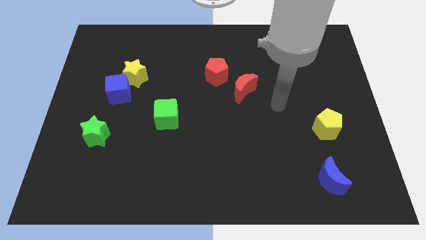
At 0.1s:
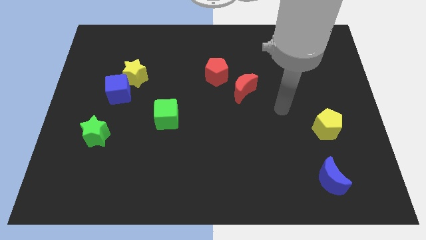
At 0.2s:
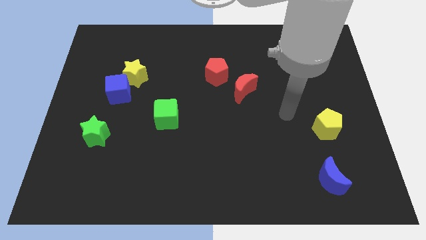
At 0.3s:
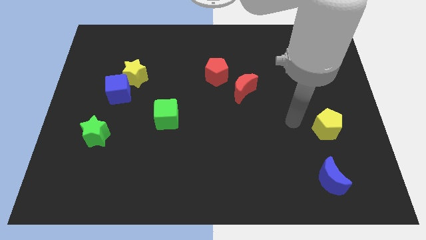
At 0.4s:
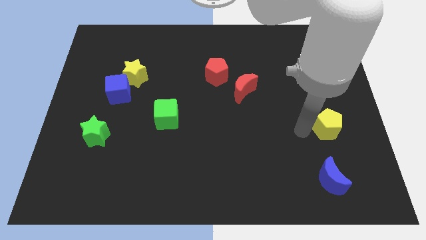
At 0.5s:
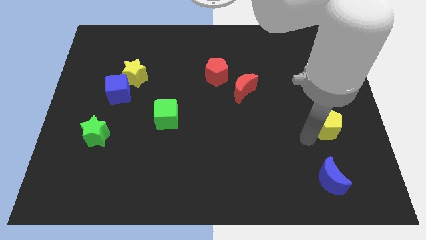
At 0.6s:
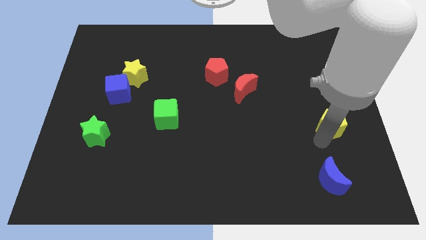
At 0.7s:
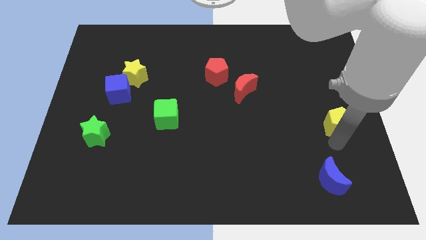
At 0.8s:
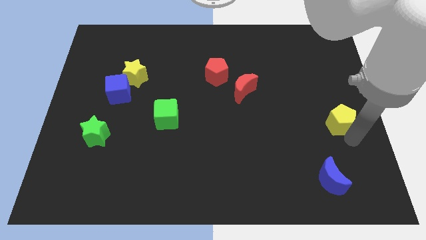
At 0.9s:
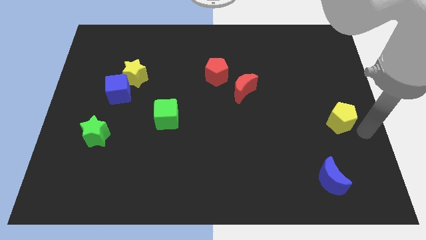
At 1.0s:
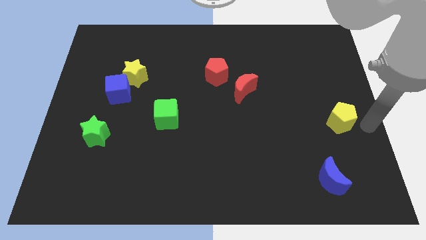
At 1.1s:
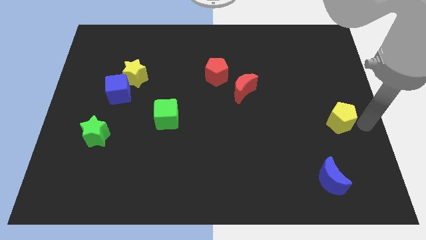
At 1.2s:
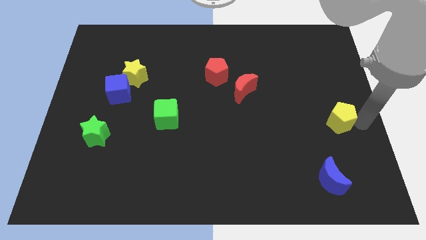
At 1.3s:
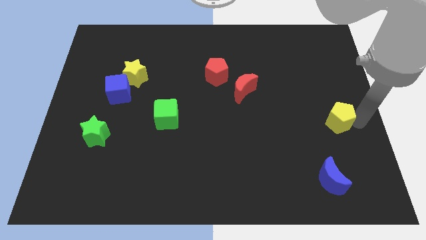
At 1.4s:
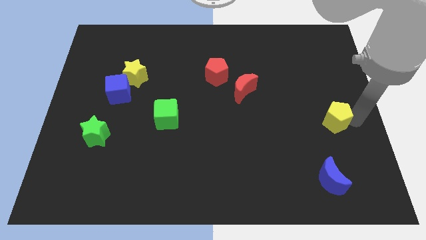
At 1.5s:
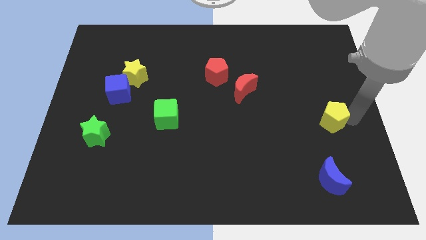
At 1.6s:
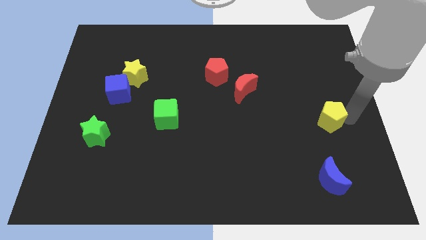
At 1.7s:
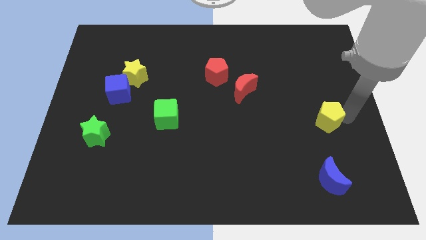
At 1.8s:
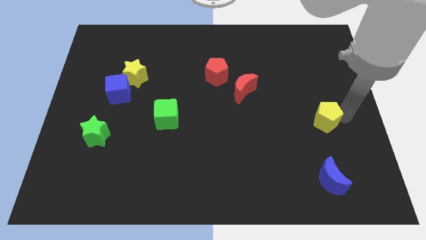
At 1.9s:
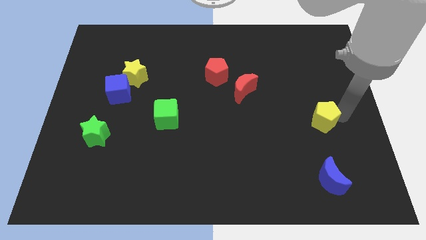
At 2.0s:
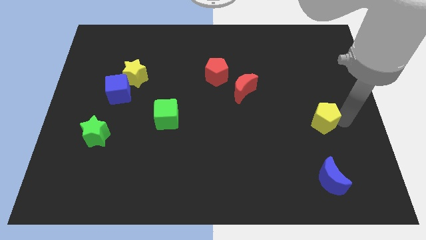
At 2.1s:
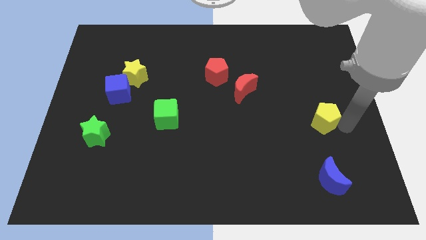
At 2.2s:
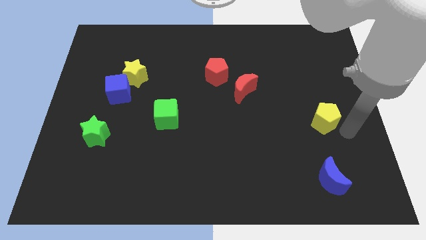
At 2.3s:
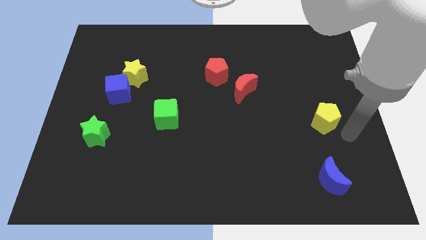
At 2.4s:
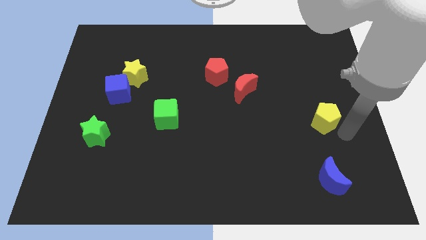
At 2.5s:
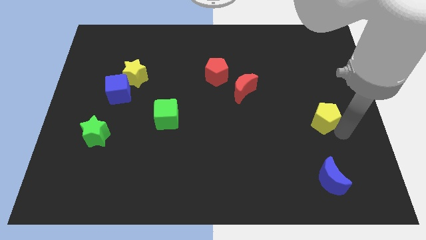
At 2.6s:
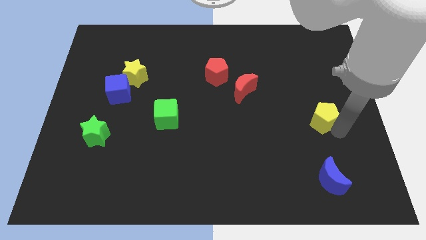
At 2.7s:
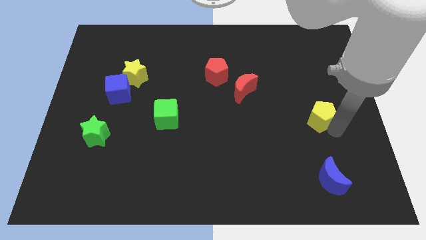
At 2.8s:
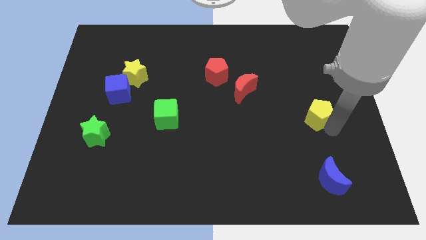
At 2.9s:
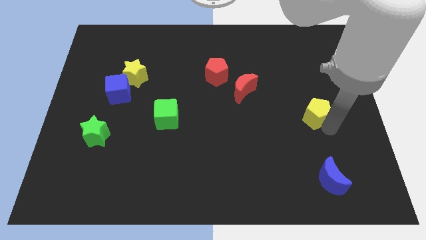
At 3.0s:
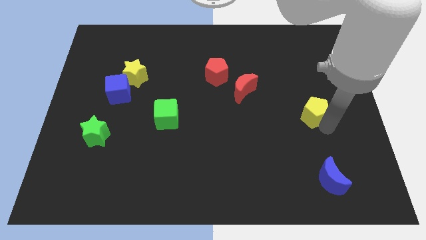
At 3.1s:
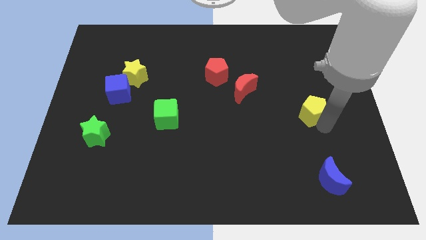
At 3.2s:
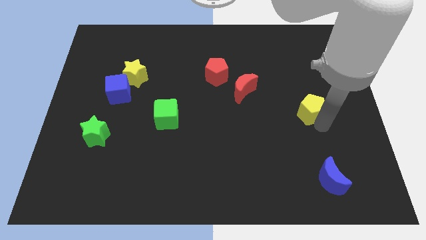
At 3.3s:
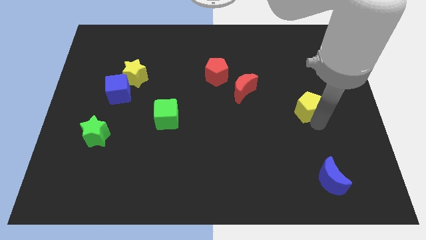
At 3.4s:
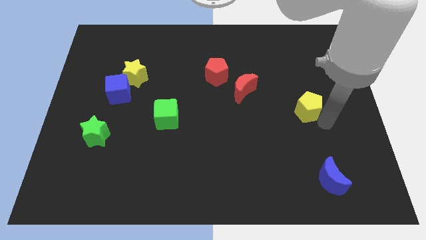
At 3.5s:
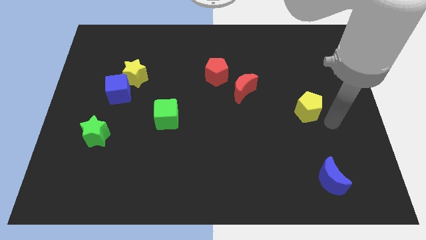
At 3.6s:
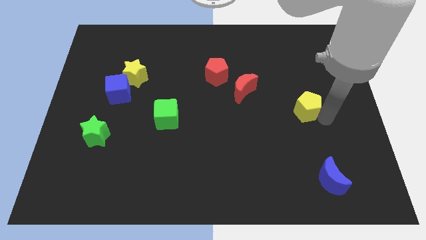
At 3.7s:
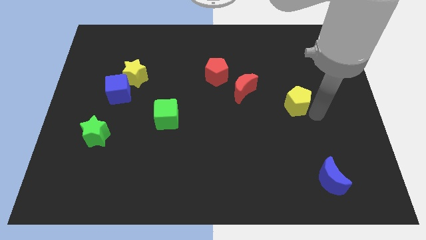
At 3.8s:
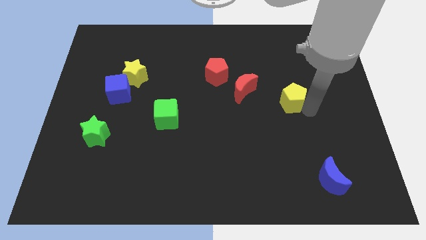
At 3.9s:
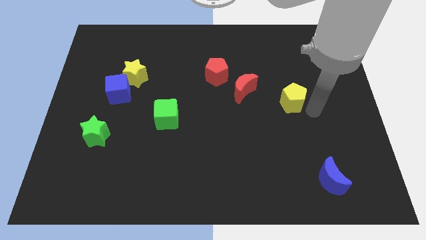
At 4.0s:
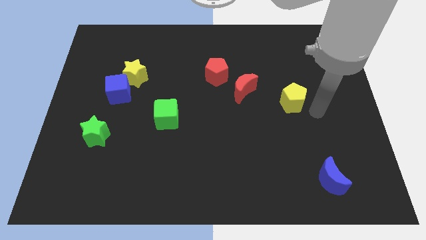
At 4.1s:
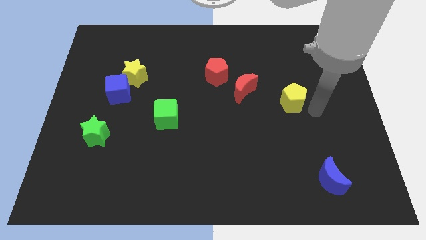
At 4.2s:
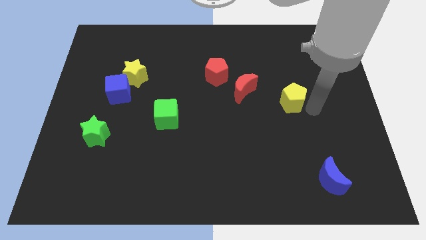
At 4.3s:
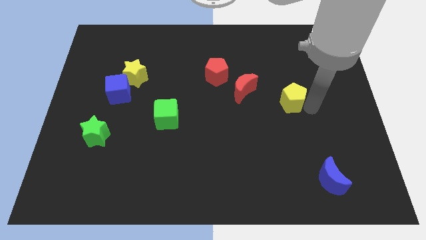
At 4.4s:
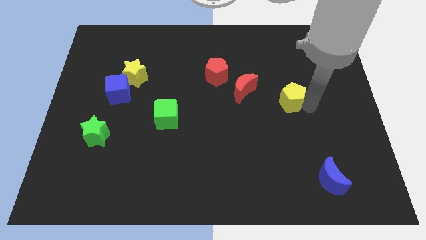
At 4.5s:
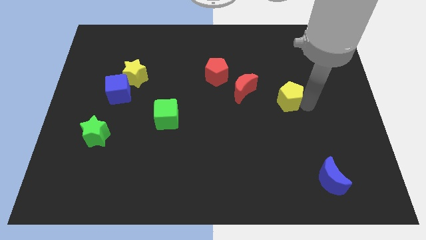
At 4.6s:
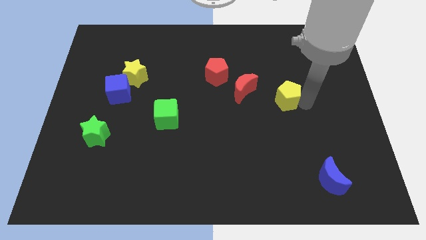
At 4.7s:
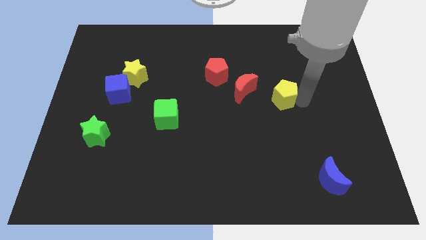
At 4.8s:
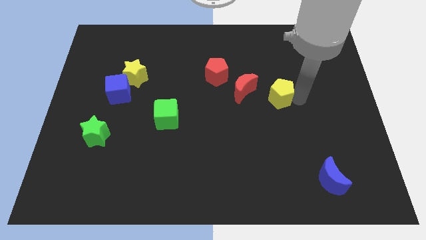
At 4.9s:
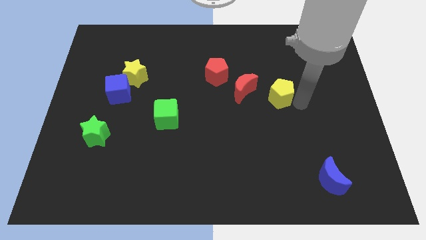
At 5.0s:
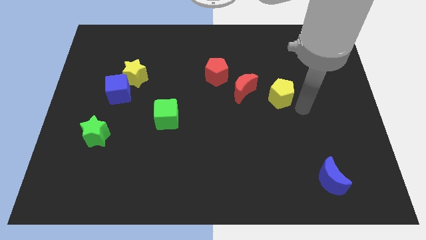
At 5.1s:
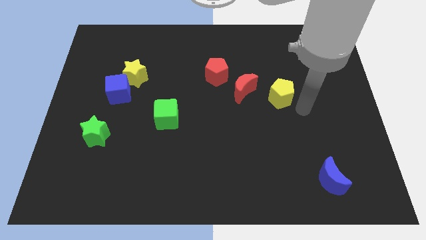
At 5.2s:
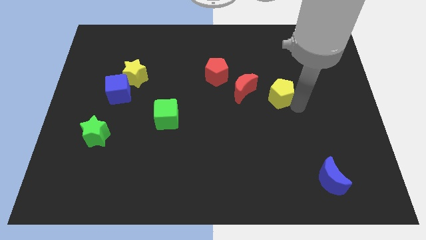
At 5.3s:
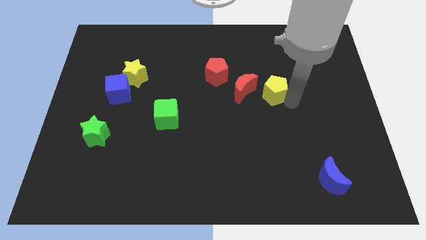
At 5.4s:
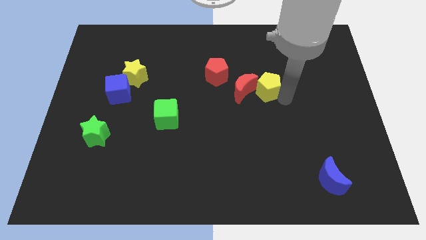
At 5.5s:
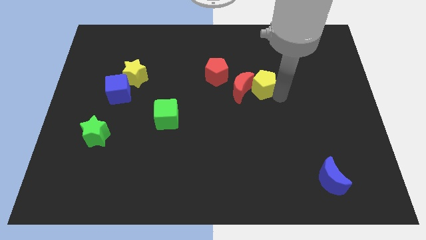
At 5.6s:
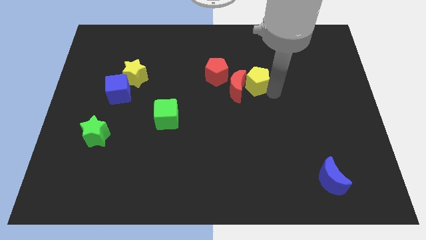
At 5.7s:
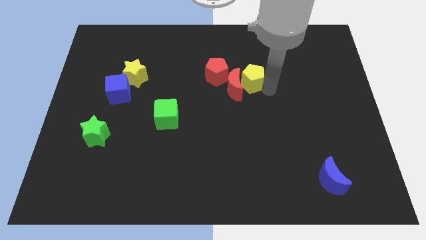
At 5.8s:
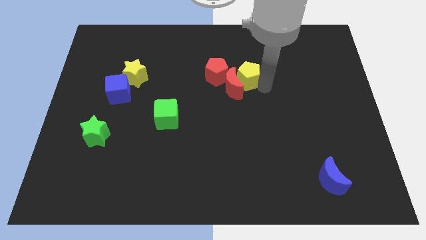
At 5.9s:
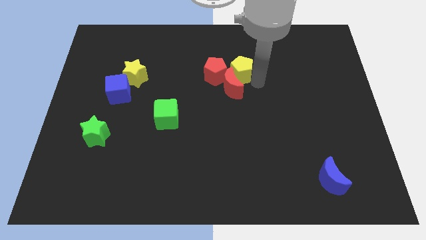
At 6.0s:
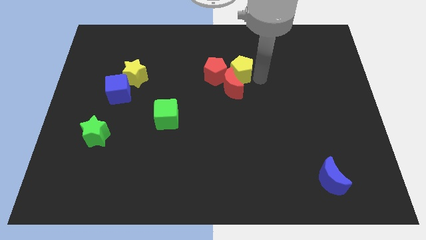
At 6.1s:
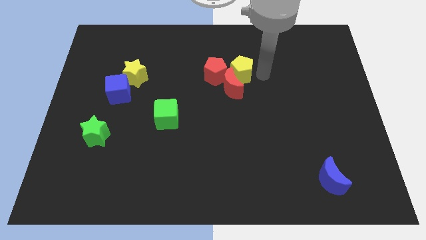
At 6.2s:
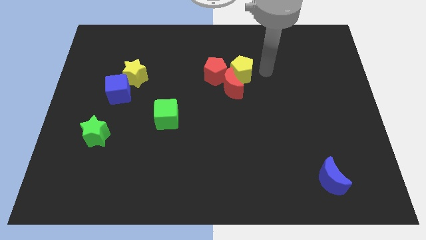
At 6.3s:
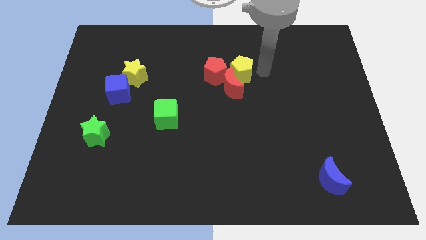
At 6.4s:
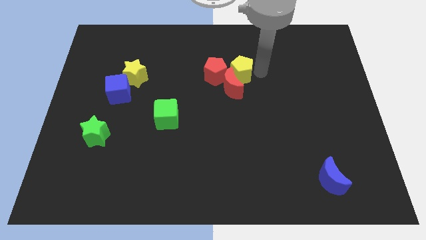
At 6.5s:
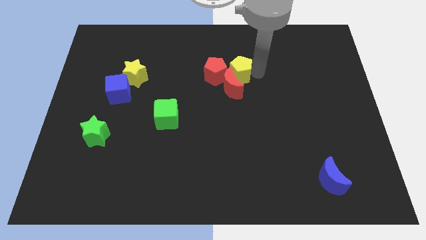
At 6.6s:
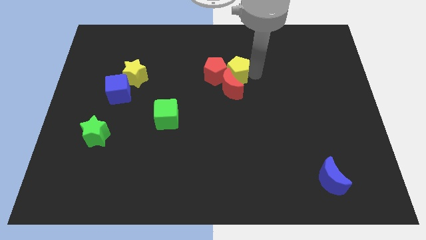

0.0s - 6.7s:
push the yellow pentagon close to the red pentagon
